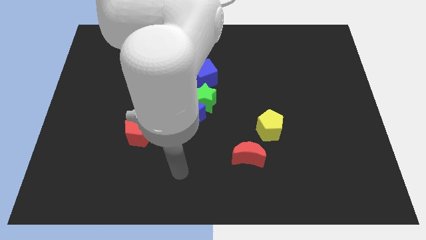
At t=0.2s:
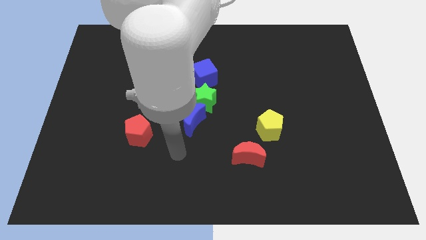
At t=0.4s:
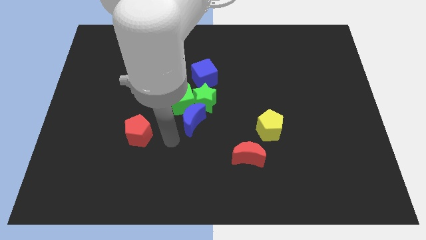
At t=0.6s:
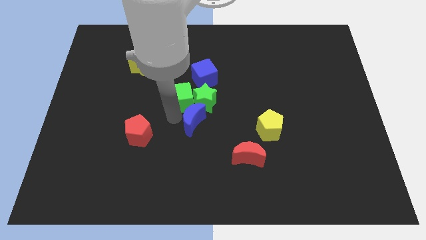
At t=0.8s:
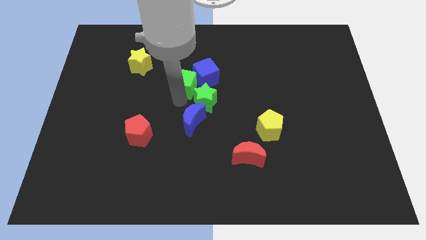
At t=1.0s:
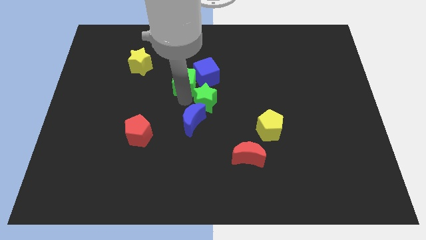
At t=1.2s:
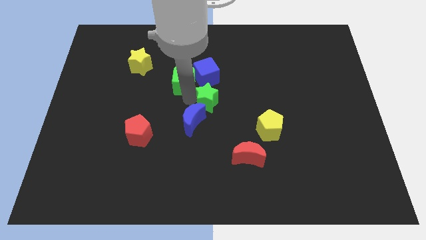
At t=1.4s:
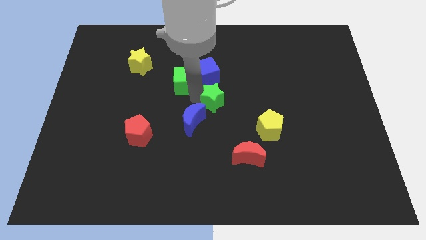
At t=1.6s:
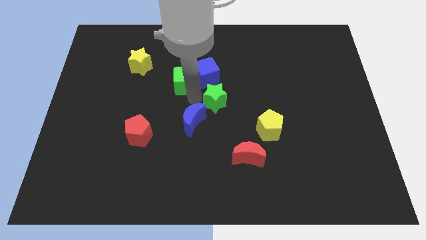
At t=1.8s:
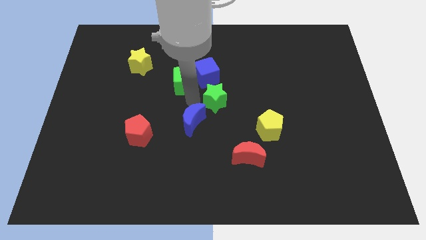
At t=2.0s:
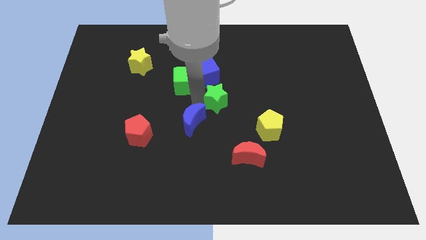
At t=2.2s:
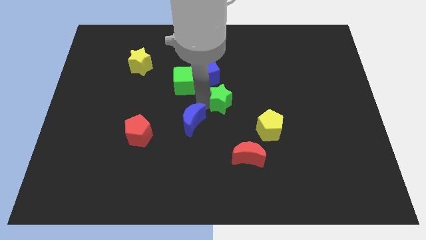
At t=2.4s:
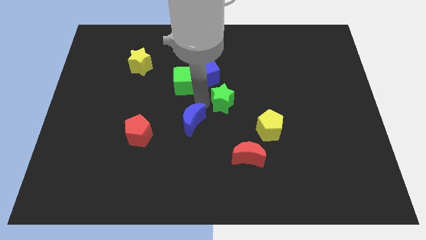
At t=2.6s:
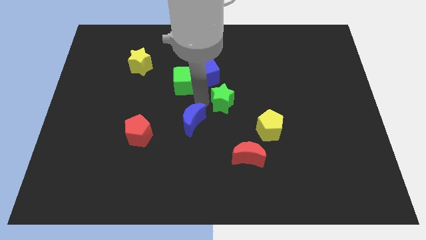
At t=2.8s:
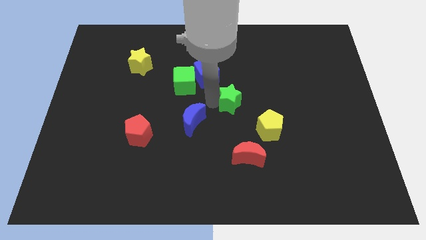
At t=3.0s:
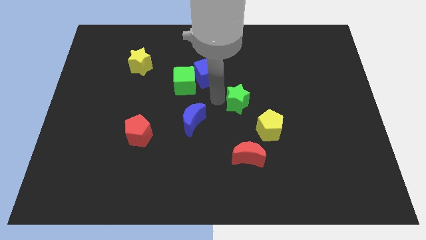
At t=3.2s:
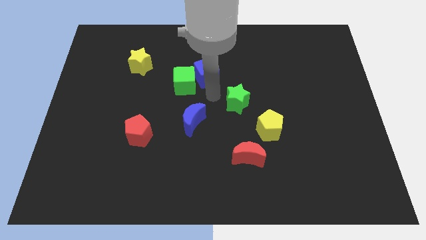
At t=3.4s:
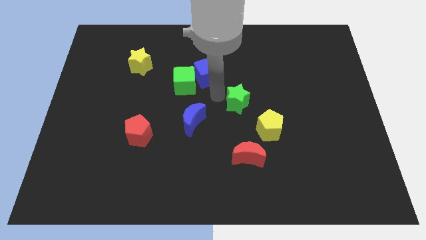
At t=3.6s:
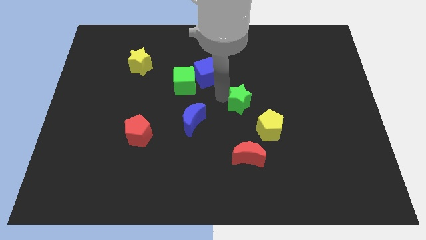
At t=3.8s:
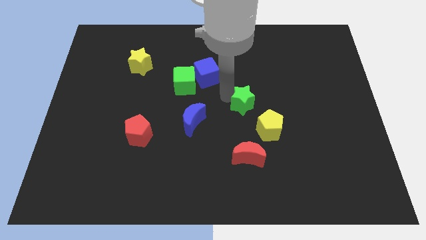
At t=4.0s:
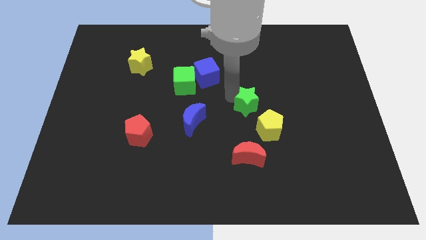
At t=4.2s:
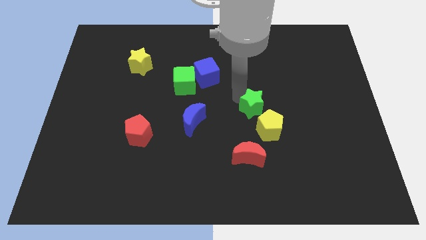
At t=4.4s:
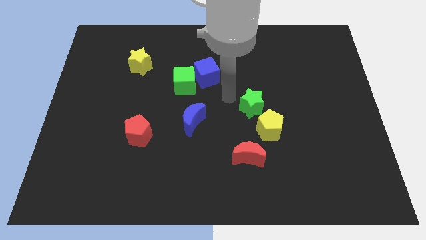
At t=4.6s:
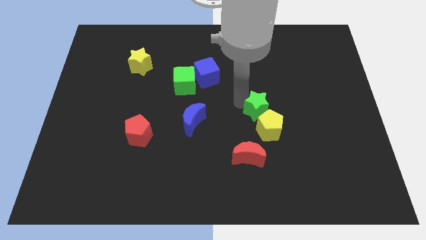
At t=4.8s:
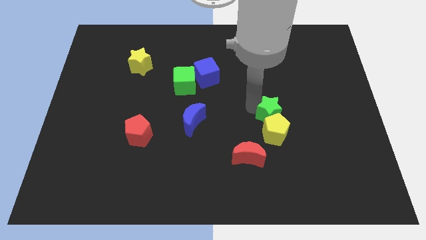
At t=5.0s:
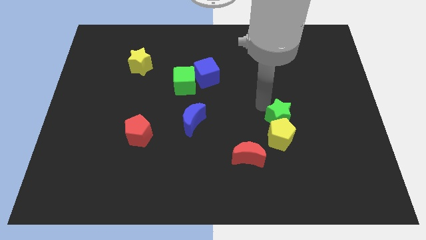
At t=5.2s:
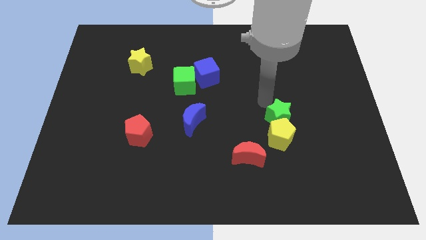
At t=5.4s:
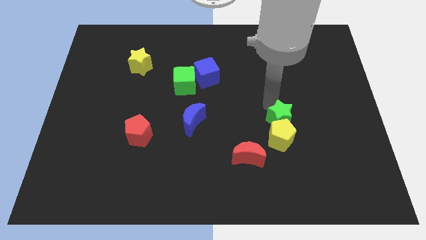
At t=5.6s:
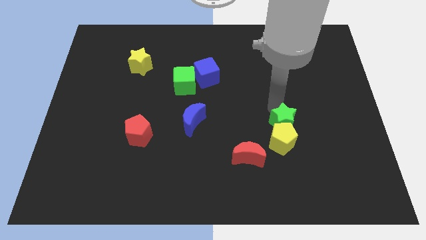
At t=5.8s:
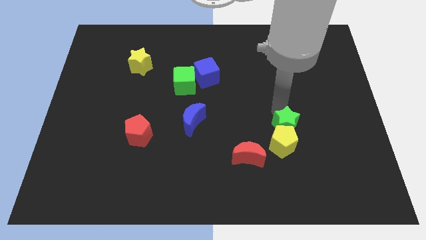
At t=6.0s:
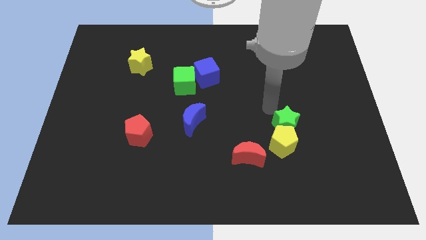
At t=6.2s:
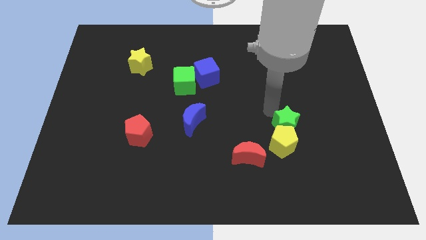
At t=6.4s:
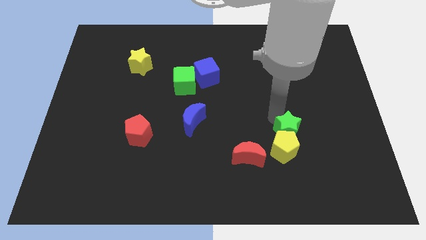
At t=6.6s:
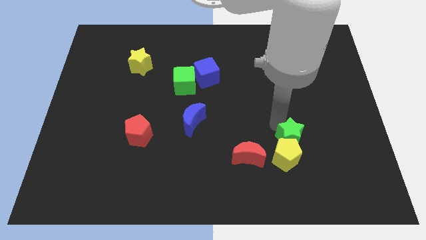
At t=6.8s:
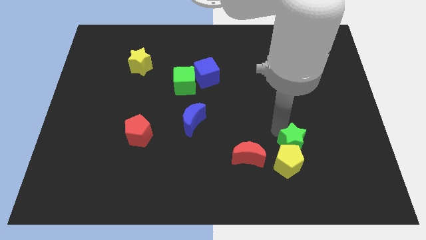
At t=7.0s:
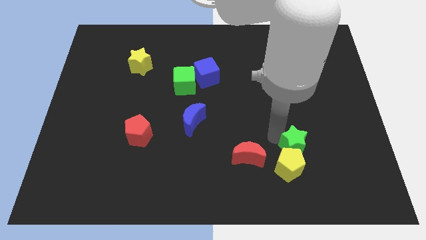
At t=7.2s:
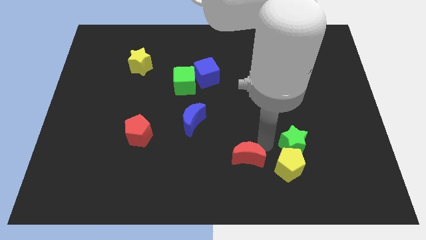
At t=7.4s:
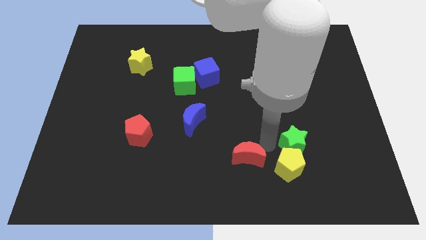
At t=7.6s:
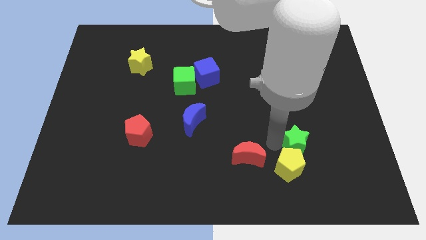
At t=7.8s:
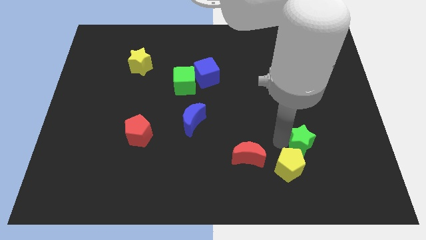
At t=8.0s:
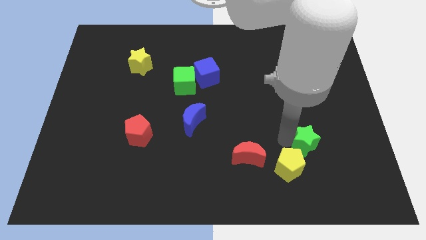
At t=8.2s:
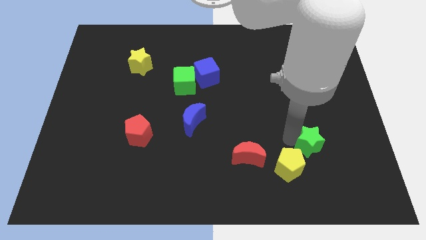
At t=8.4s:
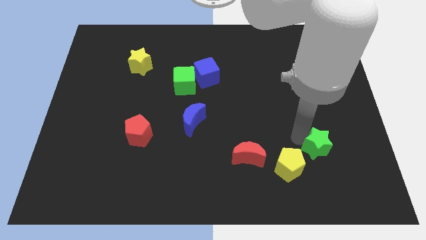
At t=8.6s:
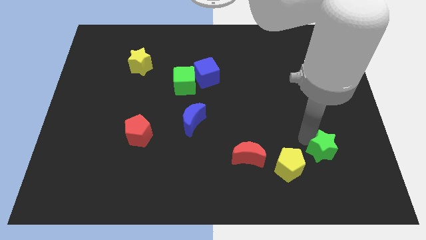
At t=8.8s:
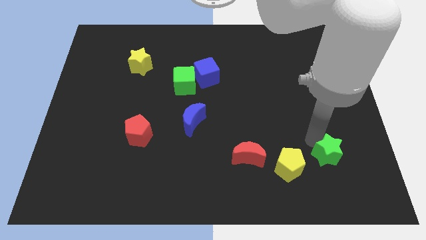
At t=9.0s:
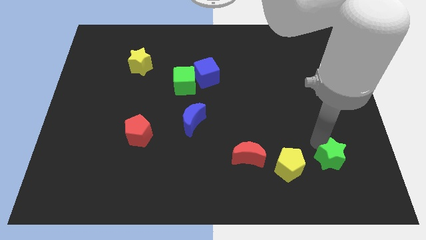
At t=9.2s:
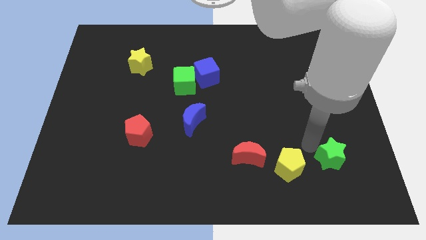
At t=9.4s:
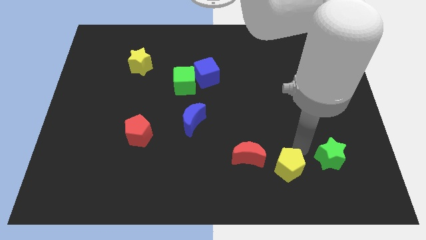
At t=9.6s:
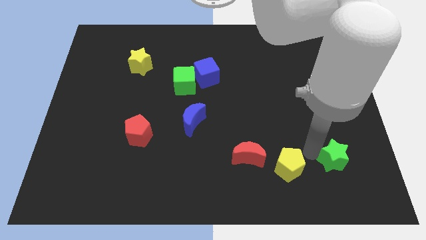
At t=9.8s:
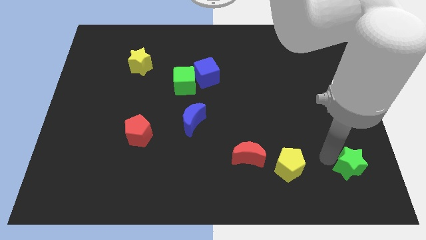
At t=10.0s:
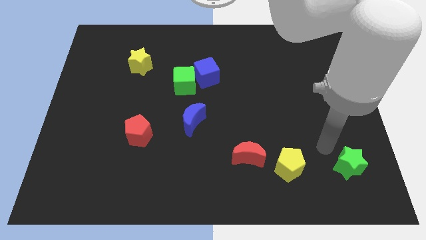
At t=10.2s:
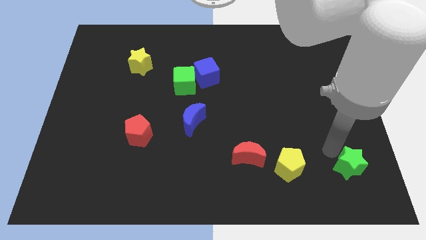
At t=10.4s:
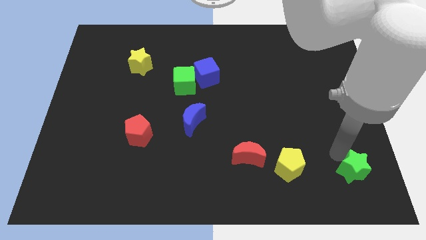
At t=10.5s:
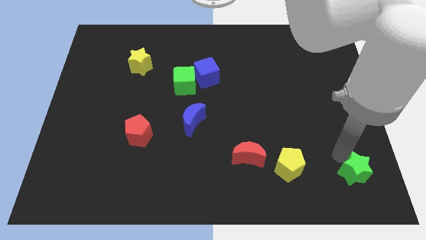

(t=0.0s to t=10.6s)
slide the green star to the bottom right

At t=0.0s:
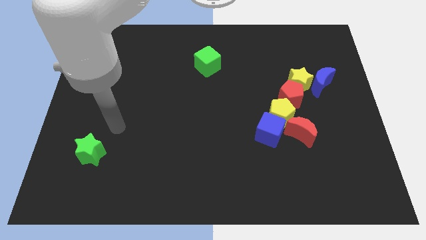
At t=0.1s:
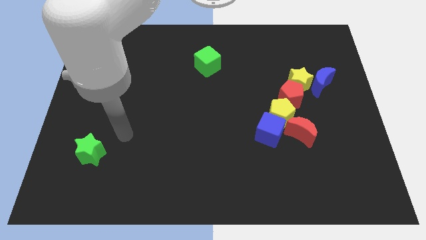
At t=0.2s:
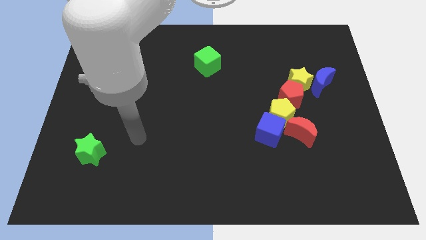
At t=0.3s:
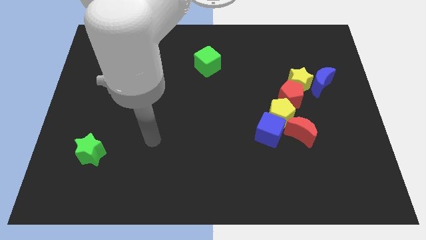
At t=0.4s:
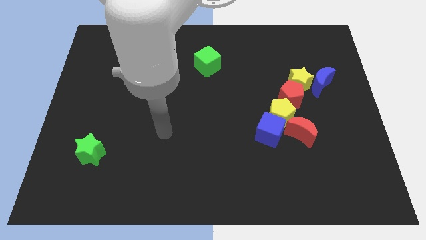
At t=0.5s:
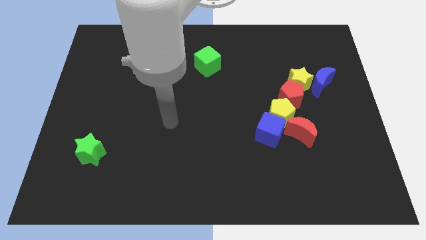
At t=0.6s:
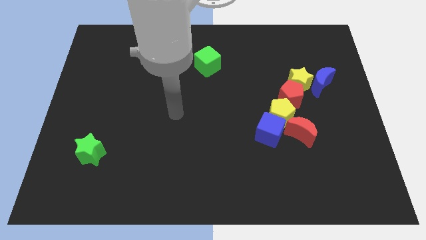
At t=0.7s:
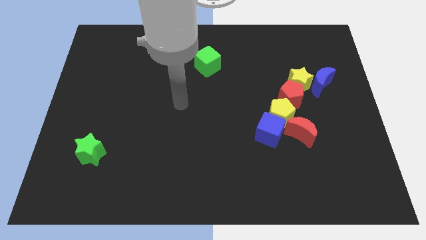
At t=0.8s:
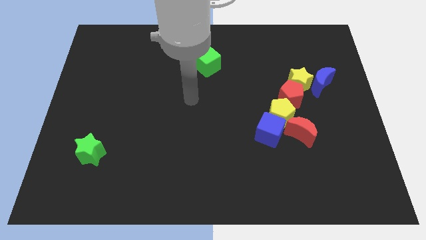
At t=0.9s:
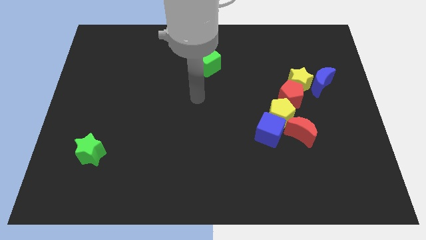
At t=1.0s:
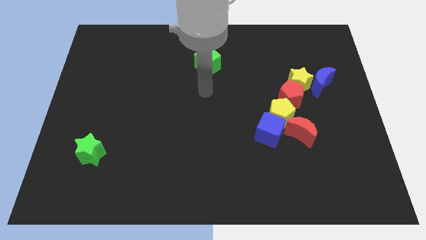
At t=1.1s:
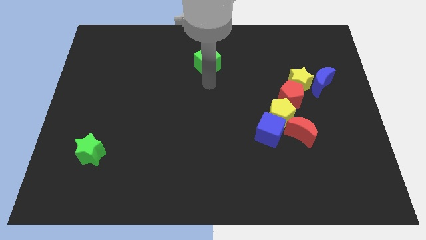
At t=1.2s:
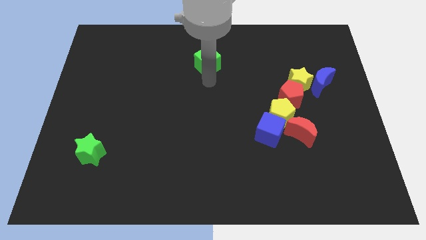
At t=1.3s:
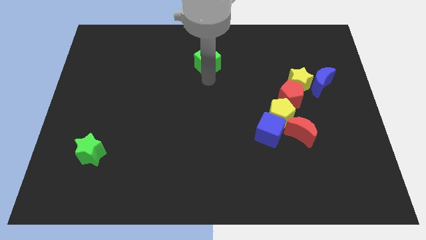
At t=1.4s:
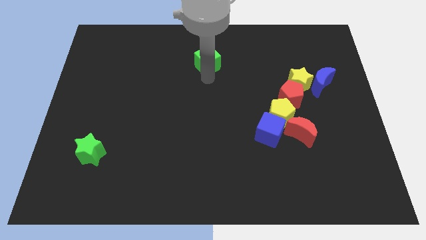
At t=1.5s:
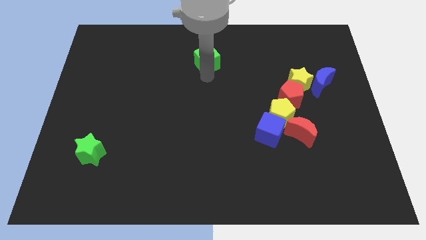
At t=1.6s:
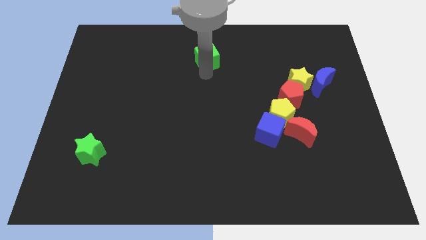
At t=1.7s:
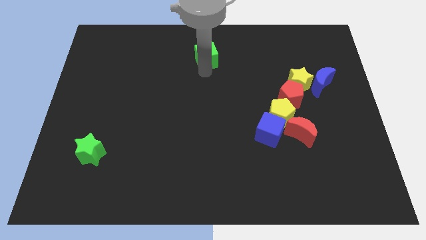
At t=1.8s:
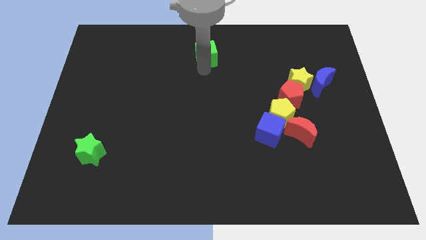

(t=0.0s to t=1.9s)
push the green cube to the top side
